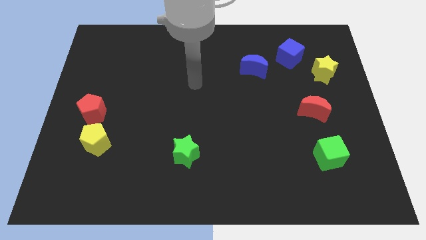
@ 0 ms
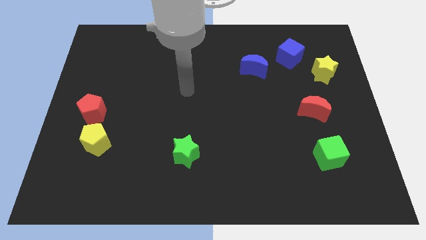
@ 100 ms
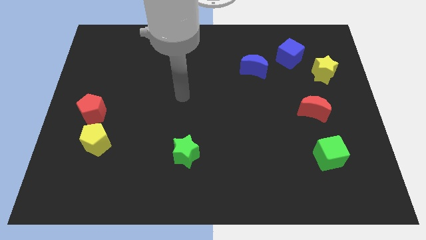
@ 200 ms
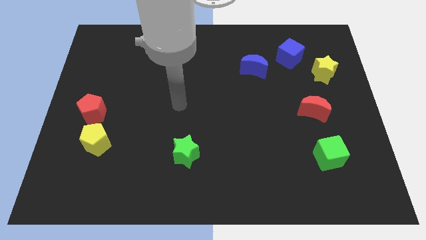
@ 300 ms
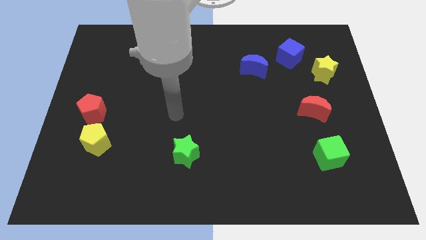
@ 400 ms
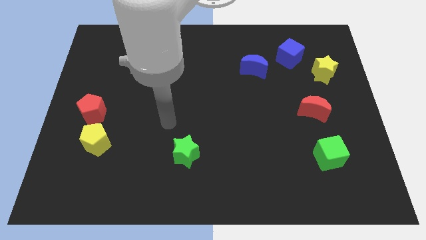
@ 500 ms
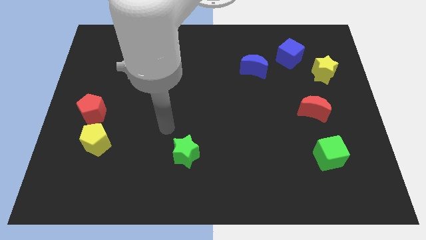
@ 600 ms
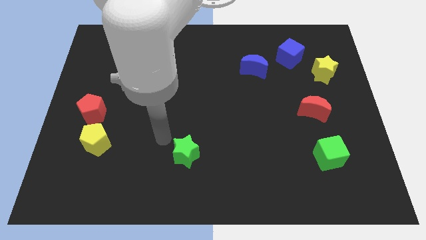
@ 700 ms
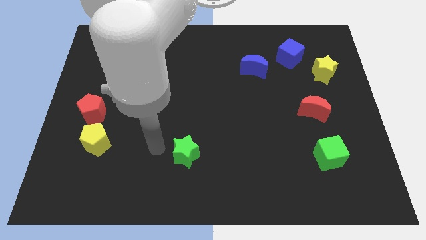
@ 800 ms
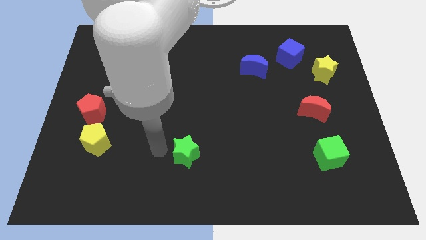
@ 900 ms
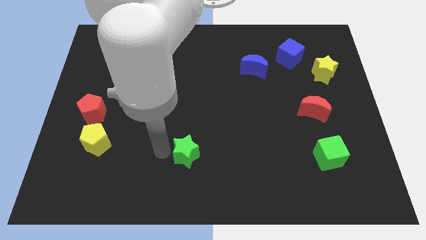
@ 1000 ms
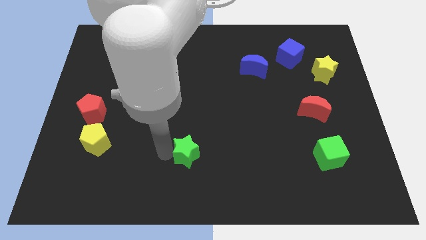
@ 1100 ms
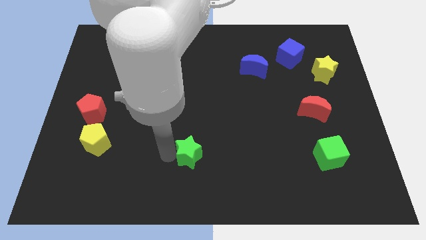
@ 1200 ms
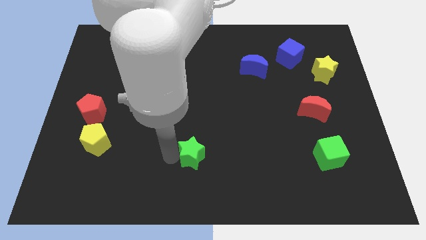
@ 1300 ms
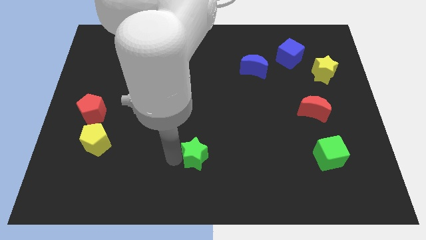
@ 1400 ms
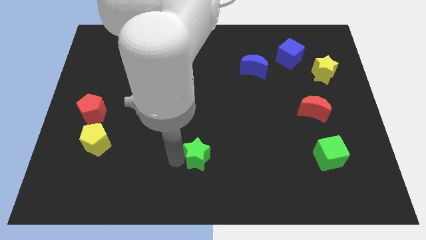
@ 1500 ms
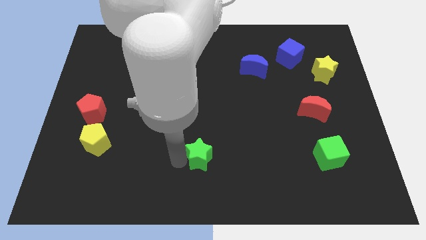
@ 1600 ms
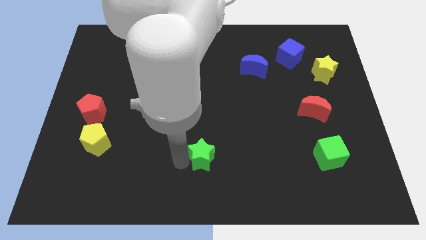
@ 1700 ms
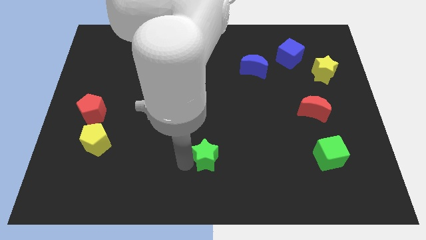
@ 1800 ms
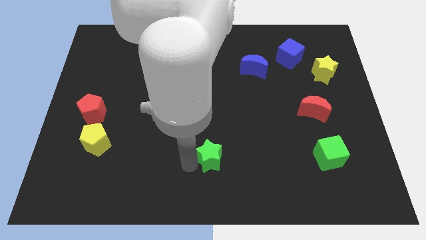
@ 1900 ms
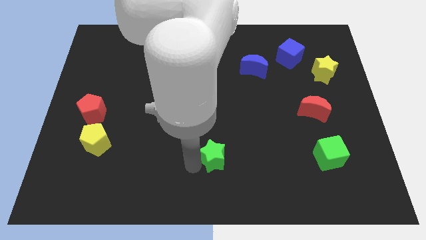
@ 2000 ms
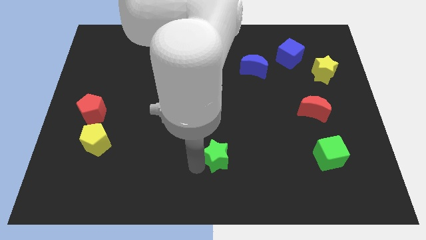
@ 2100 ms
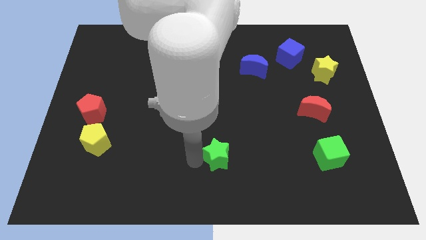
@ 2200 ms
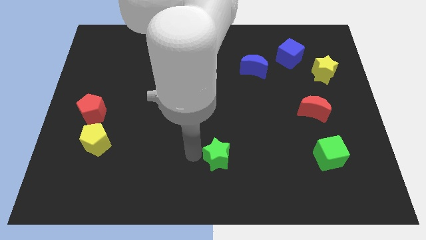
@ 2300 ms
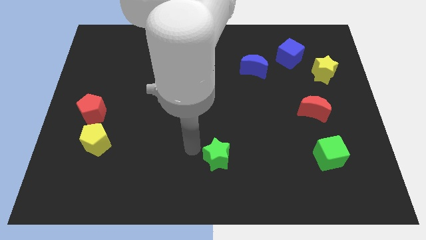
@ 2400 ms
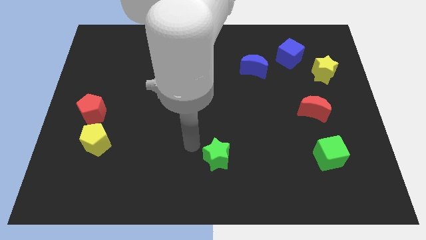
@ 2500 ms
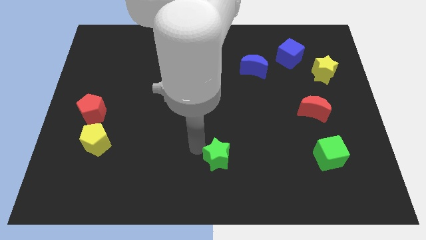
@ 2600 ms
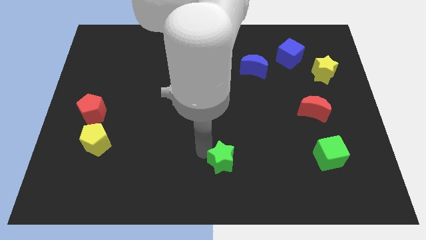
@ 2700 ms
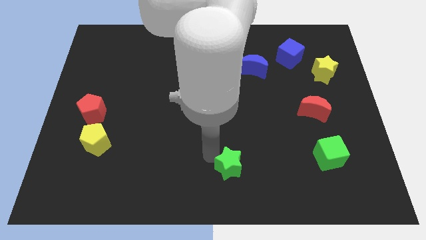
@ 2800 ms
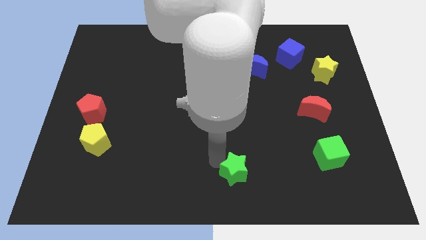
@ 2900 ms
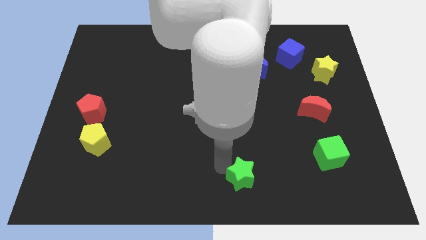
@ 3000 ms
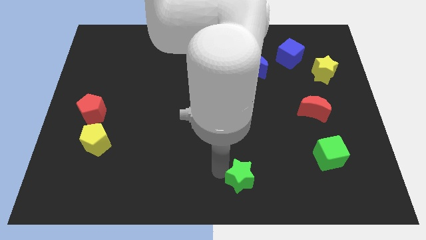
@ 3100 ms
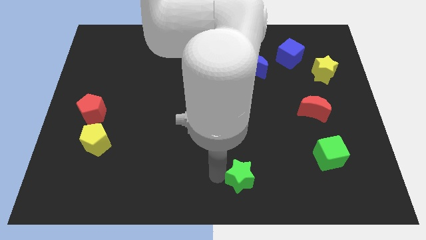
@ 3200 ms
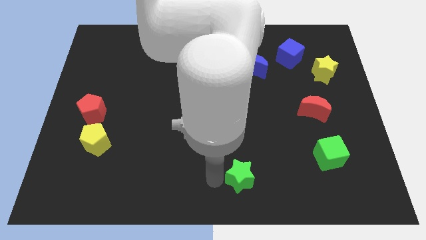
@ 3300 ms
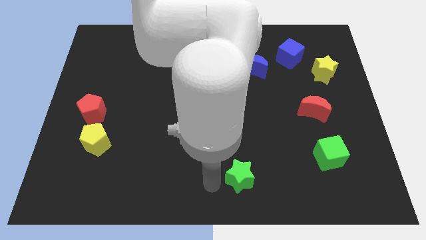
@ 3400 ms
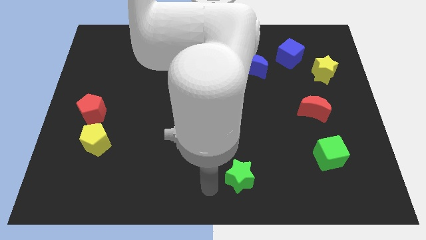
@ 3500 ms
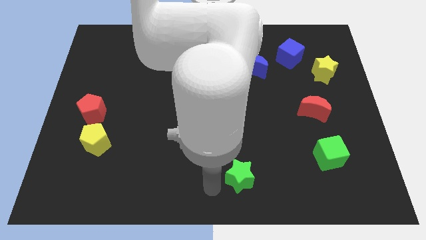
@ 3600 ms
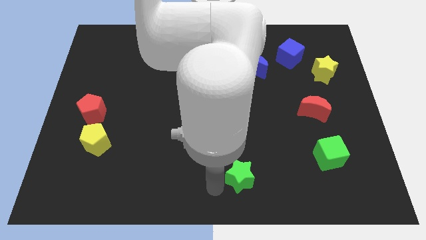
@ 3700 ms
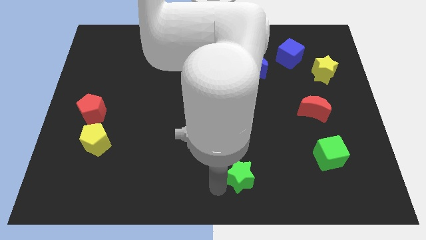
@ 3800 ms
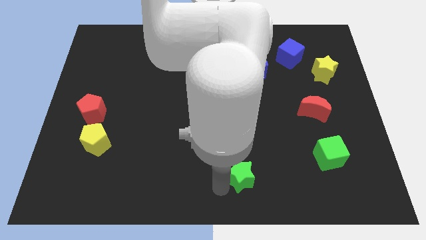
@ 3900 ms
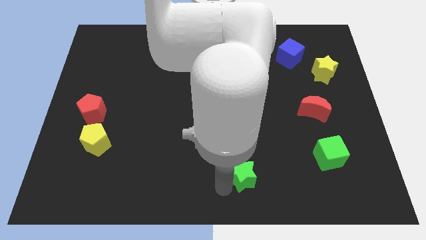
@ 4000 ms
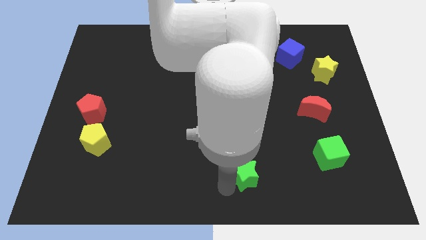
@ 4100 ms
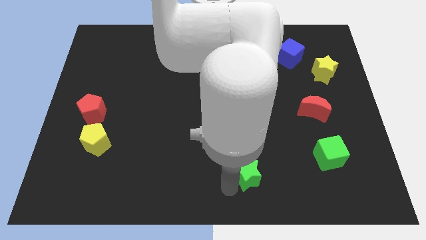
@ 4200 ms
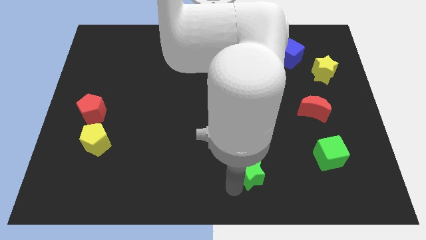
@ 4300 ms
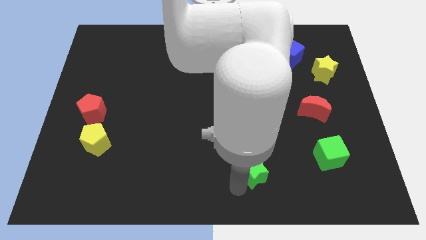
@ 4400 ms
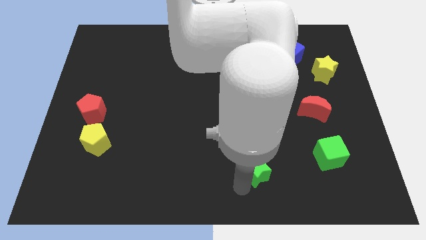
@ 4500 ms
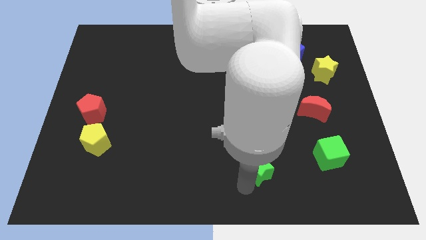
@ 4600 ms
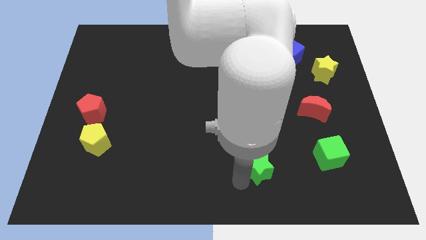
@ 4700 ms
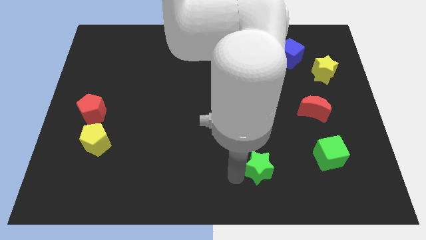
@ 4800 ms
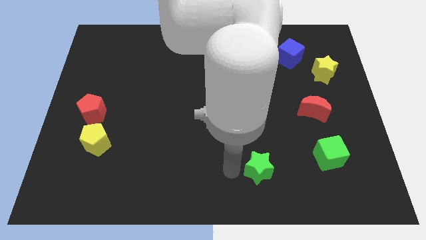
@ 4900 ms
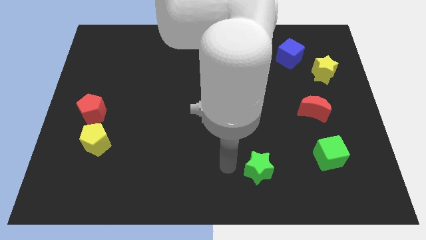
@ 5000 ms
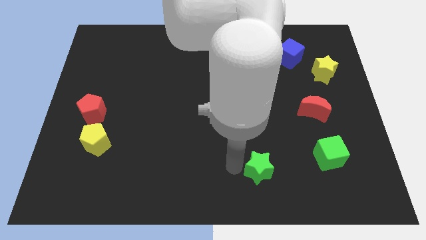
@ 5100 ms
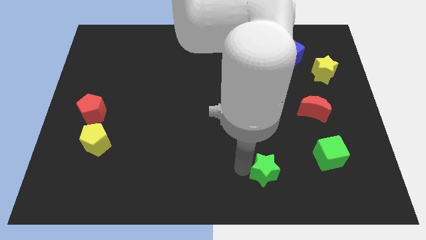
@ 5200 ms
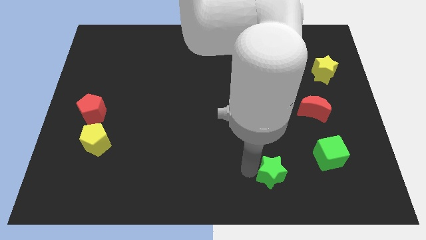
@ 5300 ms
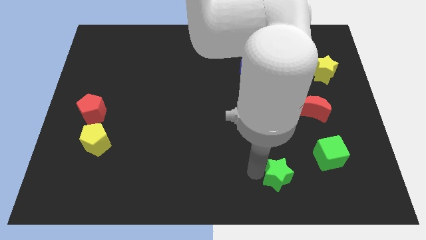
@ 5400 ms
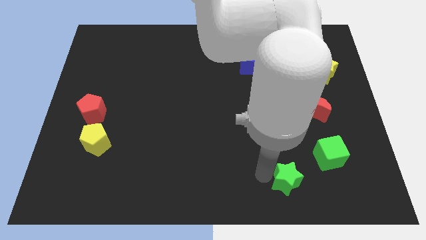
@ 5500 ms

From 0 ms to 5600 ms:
push the green star diagonally down and to the left of the green cube

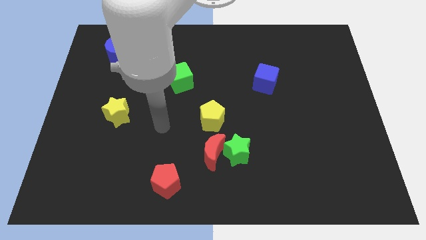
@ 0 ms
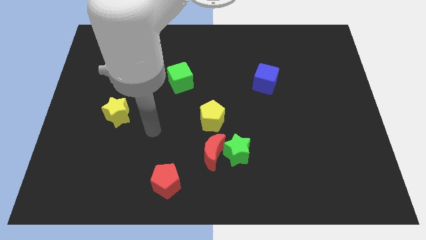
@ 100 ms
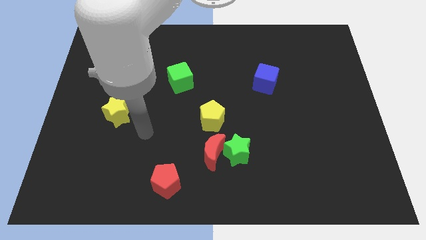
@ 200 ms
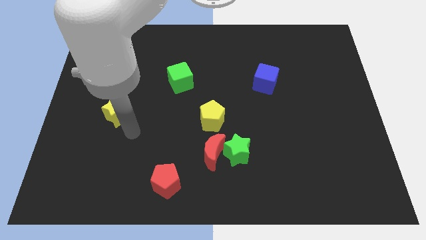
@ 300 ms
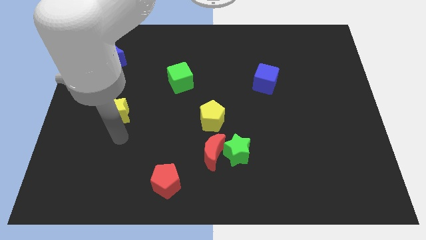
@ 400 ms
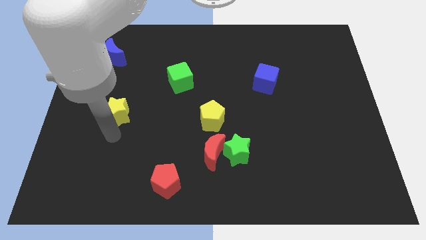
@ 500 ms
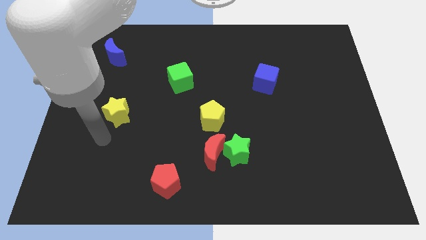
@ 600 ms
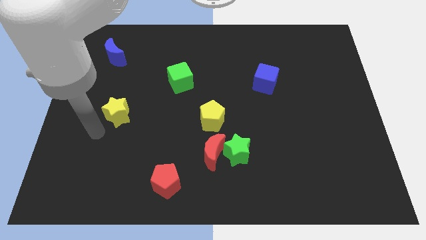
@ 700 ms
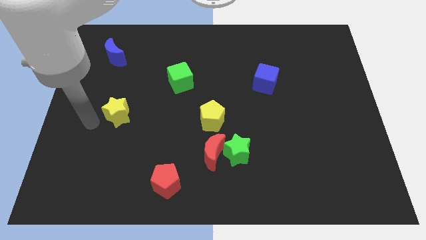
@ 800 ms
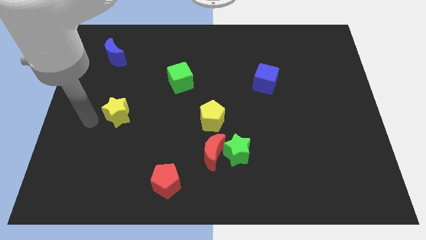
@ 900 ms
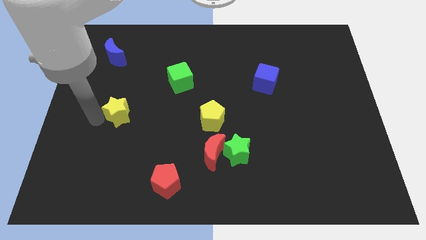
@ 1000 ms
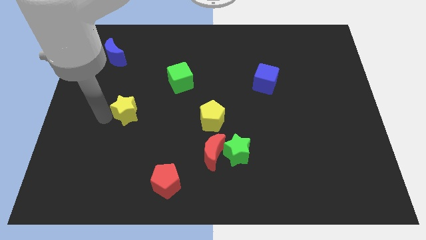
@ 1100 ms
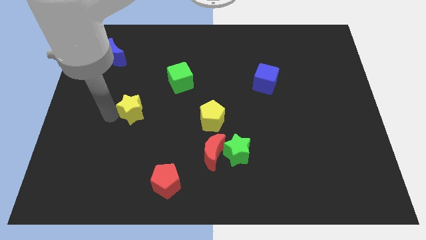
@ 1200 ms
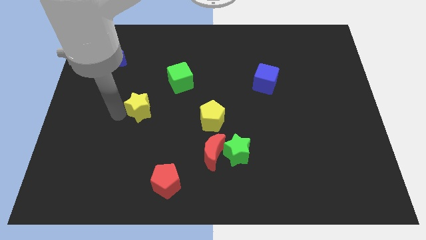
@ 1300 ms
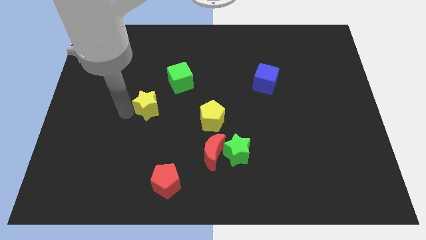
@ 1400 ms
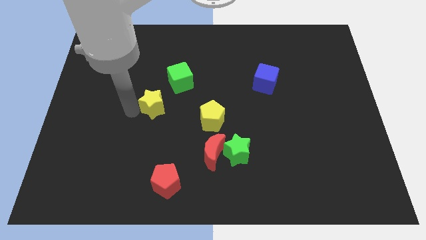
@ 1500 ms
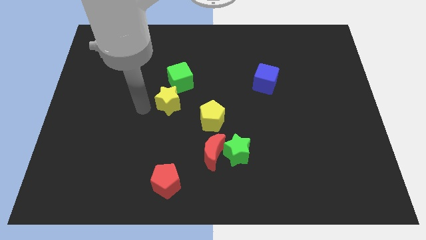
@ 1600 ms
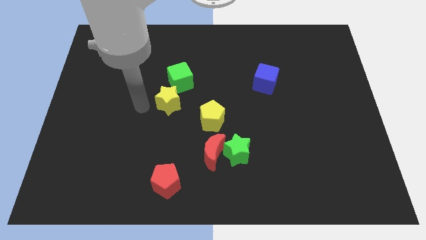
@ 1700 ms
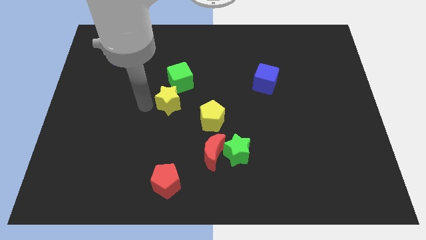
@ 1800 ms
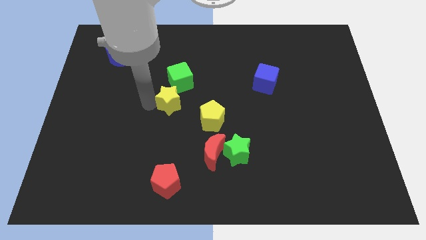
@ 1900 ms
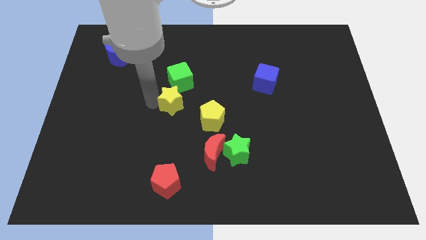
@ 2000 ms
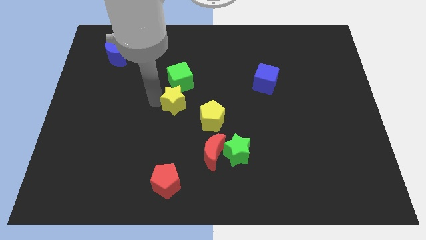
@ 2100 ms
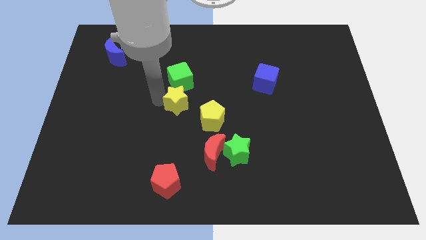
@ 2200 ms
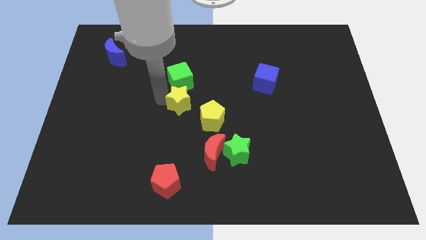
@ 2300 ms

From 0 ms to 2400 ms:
slide the yellow star diagonally down and to the right of the green cube
